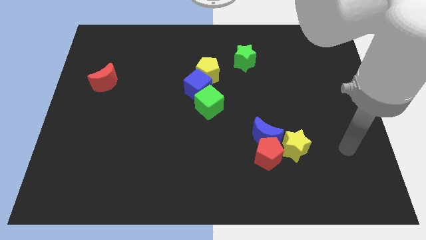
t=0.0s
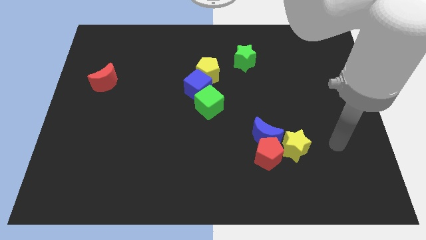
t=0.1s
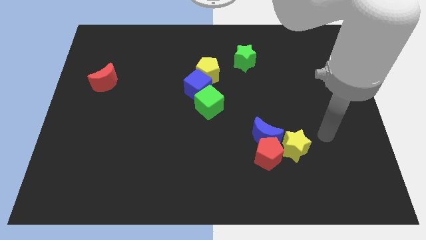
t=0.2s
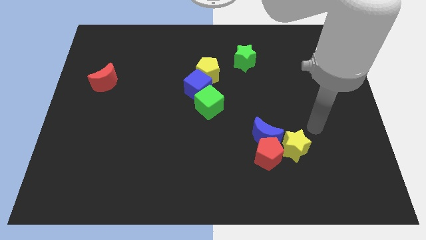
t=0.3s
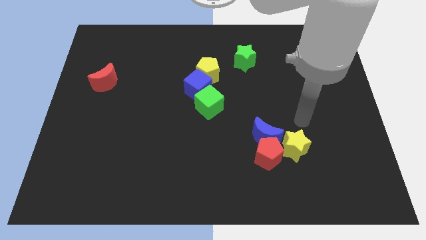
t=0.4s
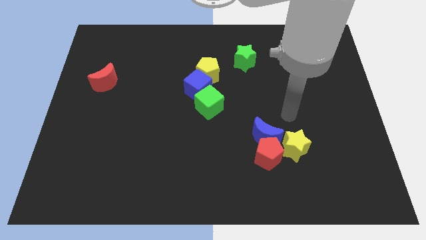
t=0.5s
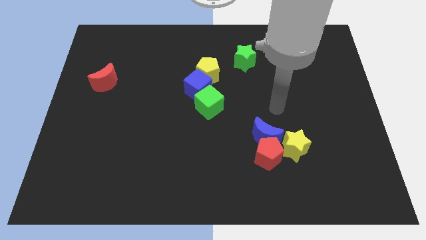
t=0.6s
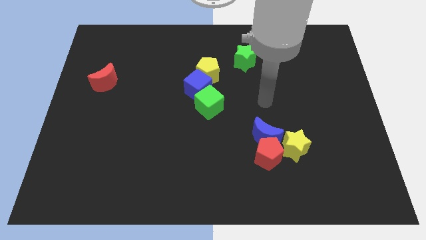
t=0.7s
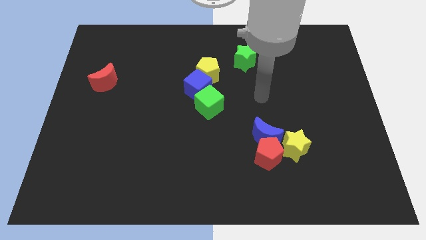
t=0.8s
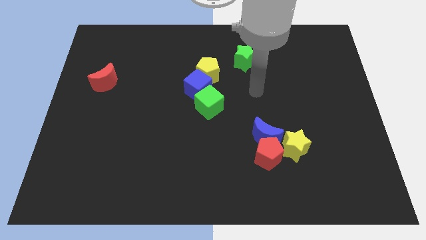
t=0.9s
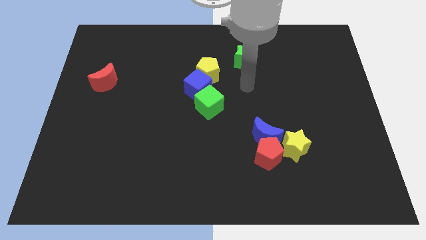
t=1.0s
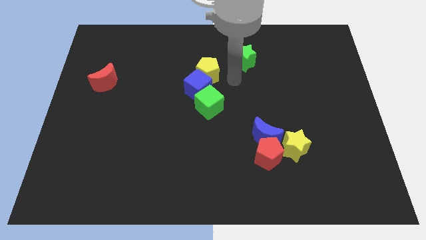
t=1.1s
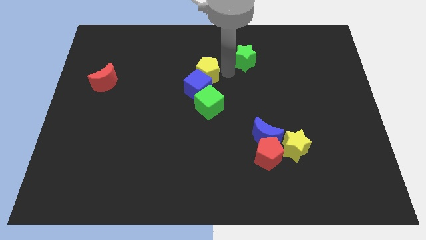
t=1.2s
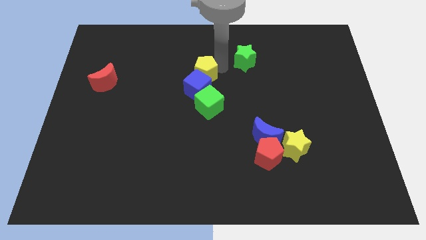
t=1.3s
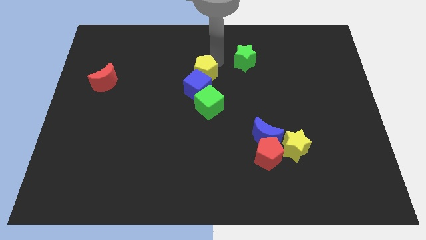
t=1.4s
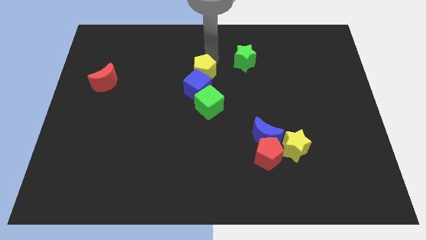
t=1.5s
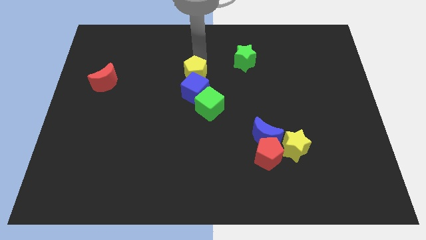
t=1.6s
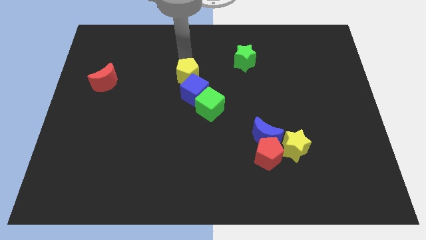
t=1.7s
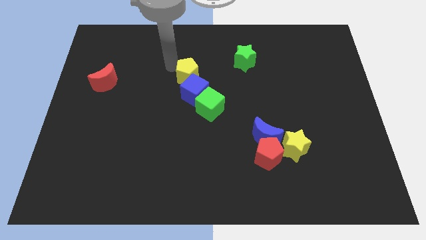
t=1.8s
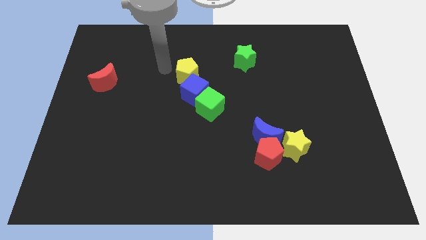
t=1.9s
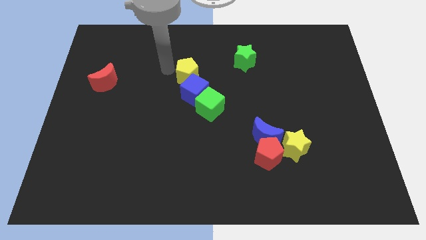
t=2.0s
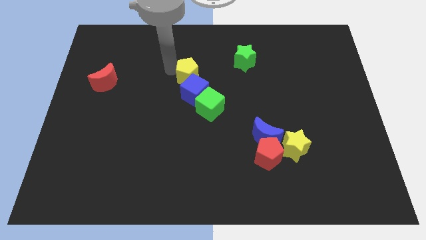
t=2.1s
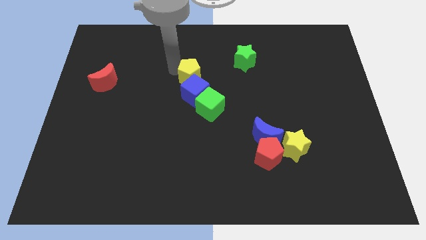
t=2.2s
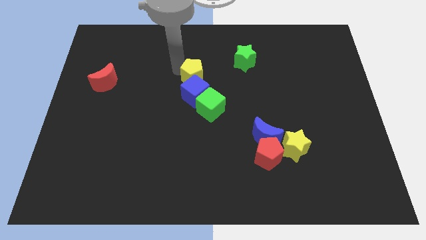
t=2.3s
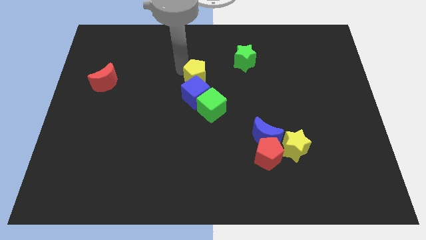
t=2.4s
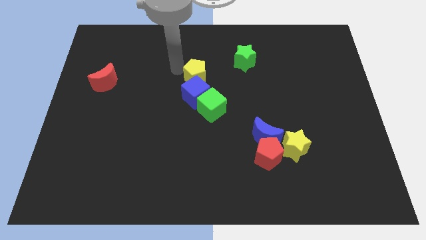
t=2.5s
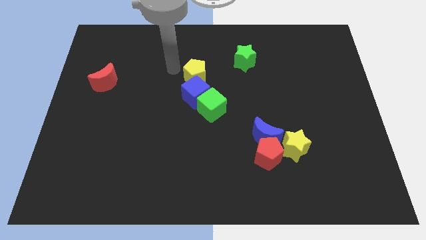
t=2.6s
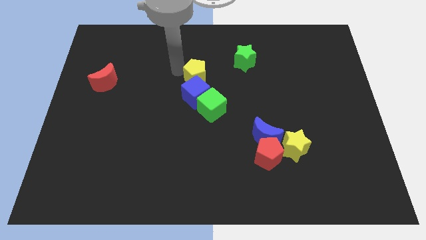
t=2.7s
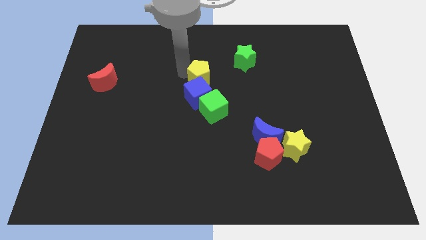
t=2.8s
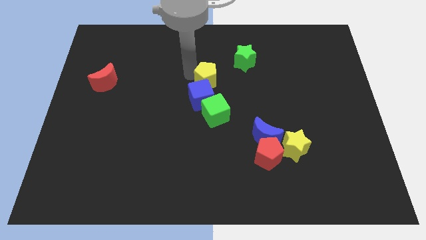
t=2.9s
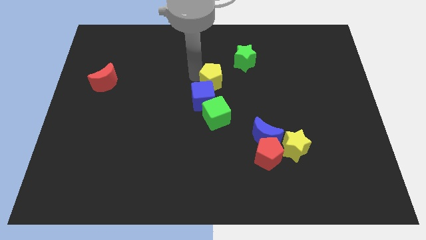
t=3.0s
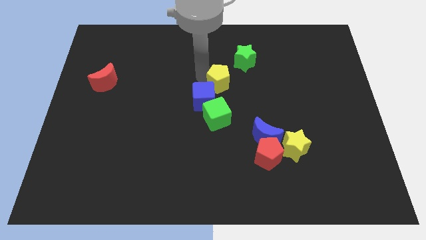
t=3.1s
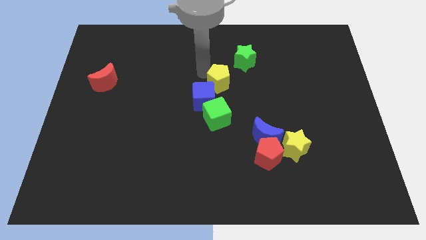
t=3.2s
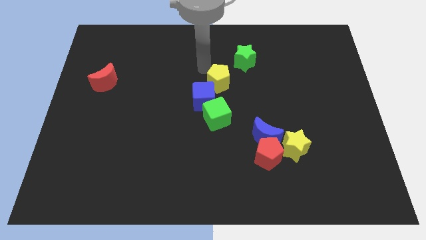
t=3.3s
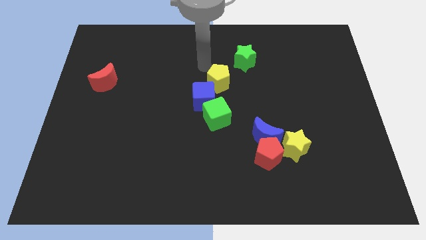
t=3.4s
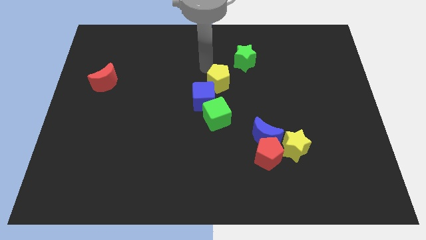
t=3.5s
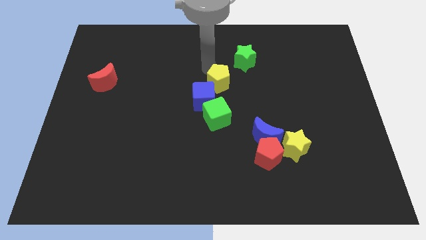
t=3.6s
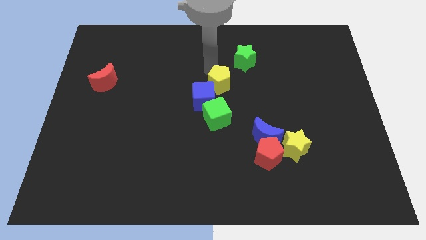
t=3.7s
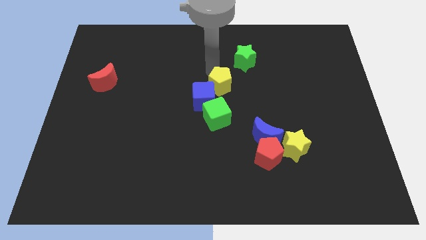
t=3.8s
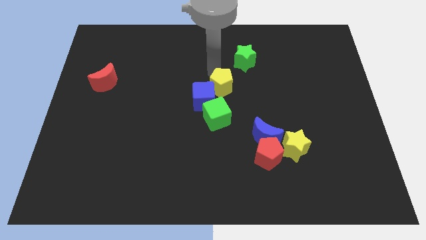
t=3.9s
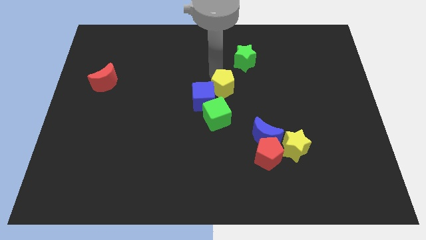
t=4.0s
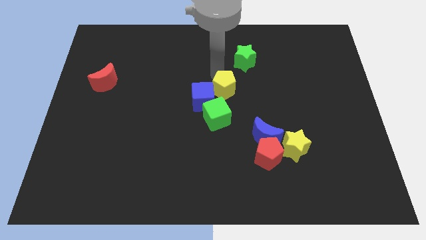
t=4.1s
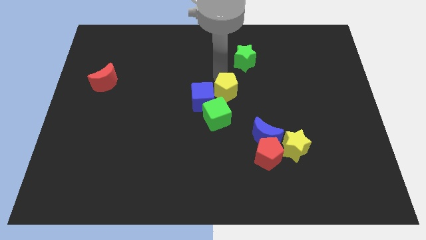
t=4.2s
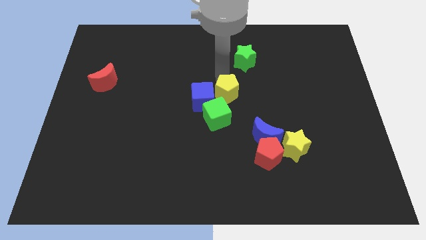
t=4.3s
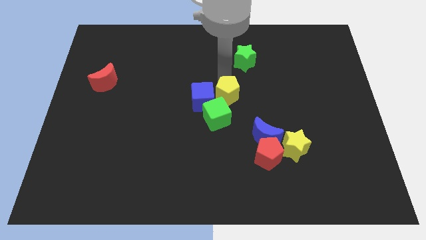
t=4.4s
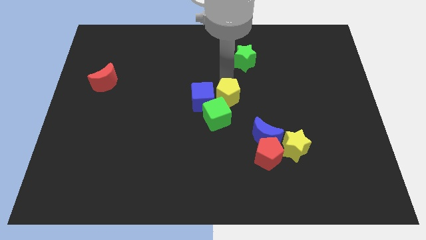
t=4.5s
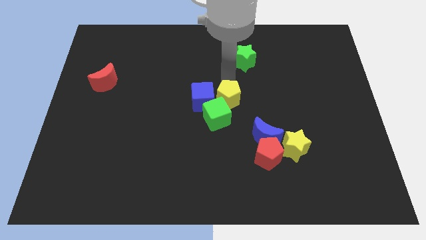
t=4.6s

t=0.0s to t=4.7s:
slightly move the yellow pentagon down

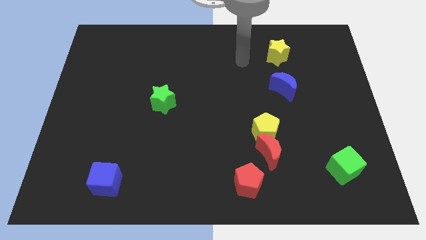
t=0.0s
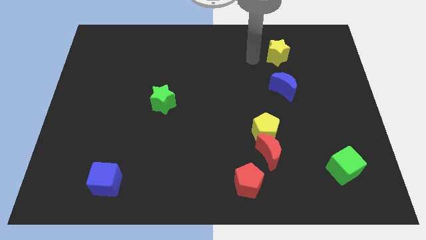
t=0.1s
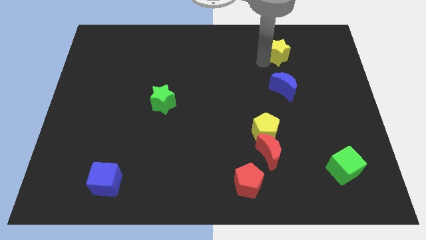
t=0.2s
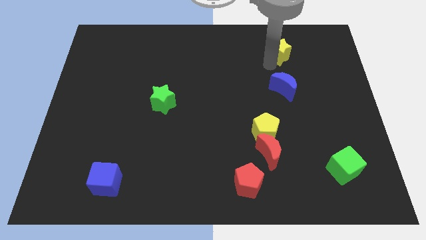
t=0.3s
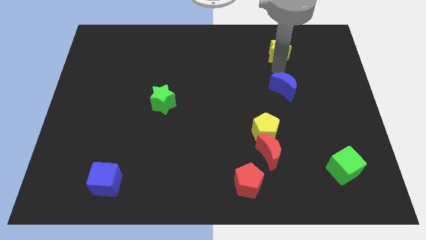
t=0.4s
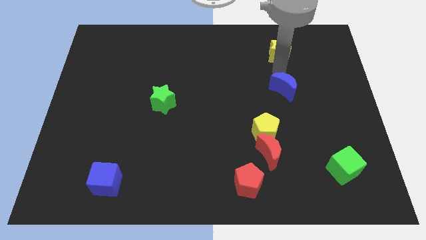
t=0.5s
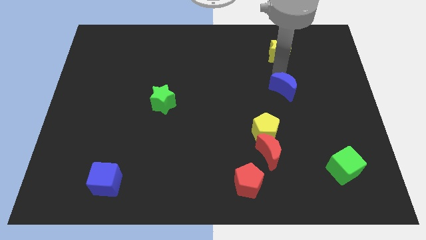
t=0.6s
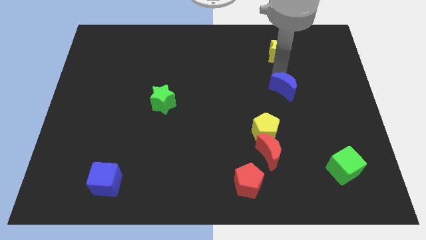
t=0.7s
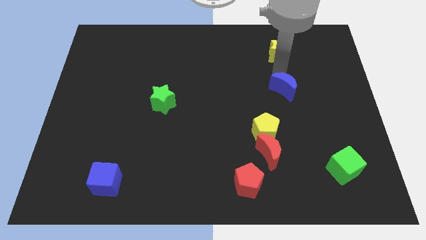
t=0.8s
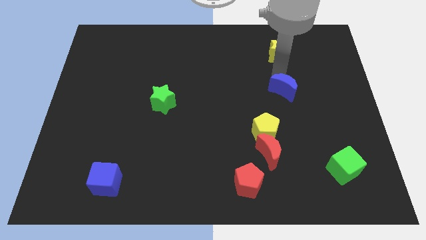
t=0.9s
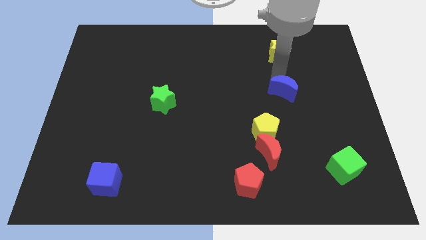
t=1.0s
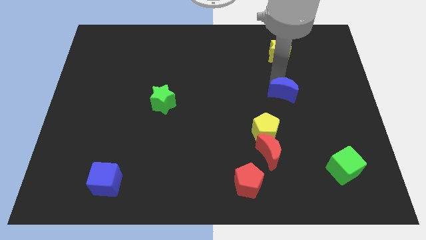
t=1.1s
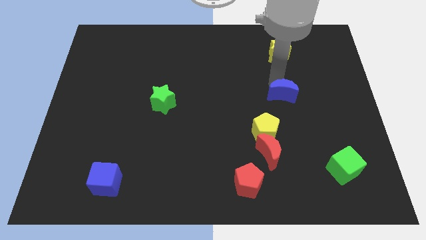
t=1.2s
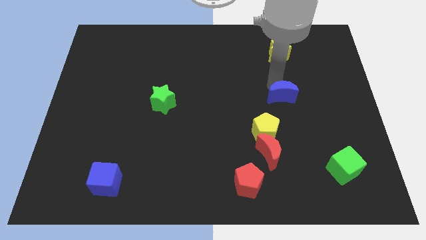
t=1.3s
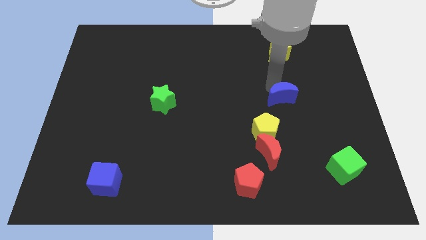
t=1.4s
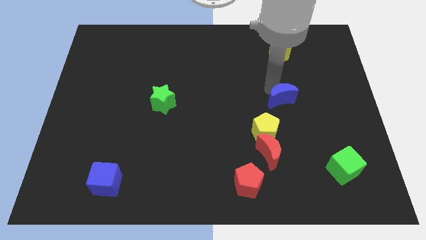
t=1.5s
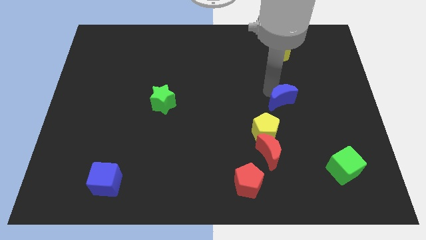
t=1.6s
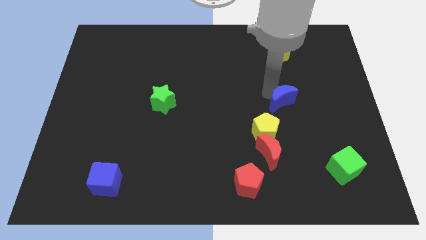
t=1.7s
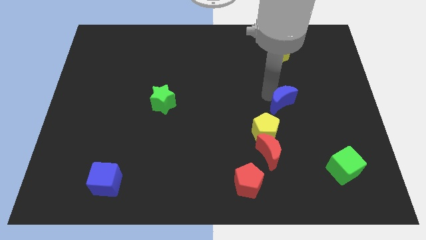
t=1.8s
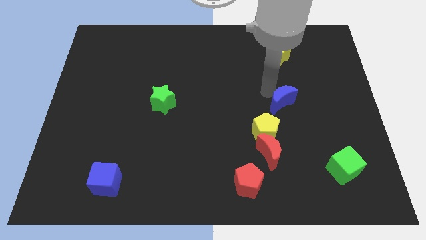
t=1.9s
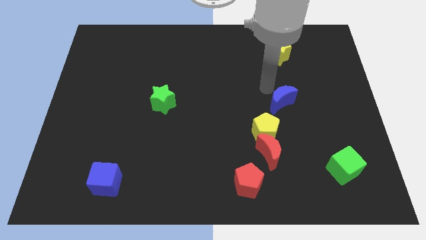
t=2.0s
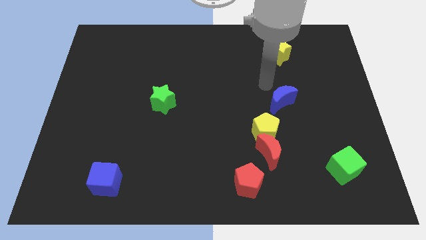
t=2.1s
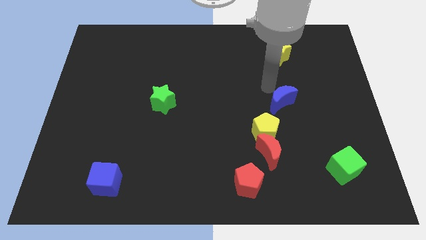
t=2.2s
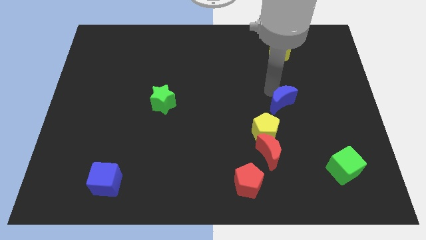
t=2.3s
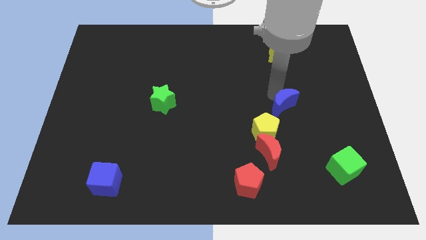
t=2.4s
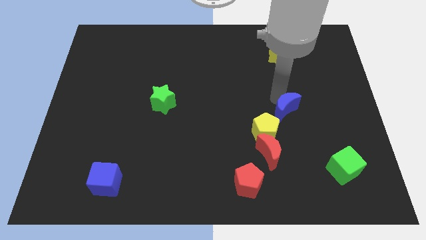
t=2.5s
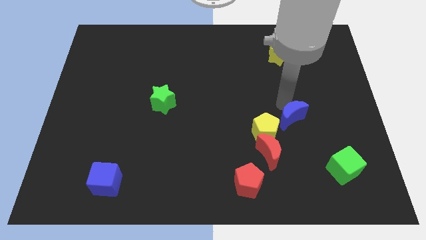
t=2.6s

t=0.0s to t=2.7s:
slide the blue moon slightly downwards

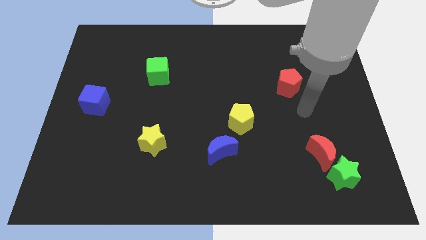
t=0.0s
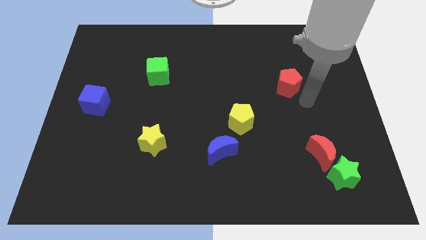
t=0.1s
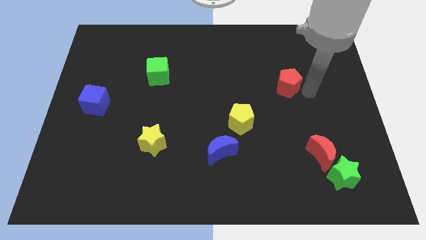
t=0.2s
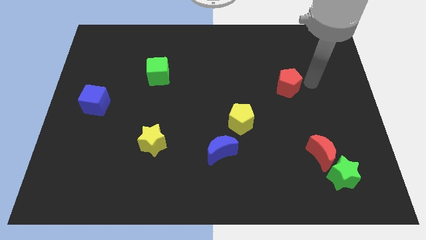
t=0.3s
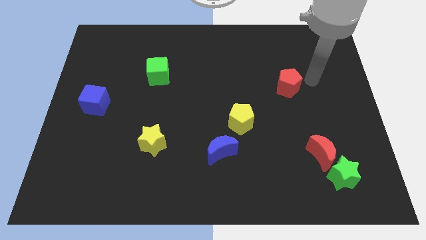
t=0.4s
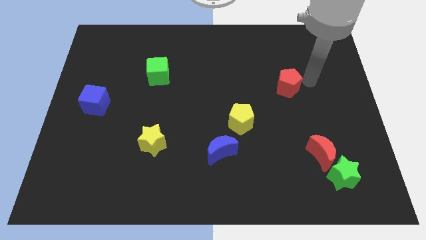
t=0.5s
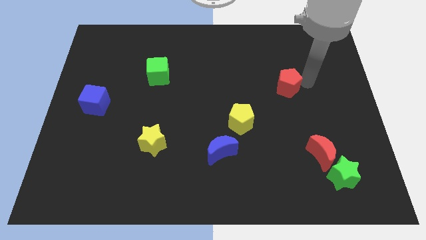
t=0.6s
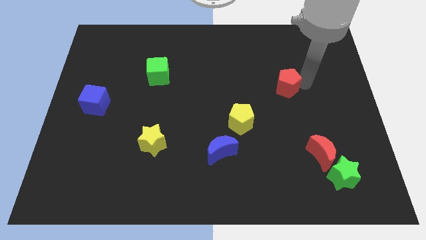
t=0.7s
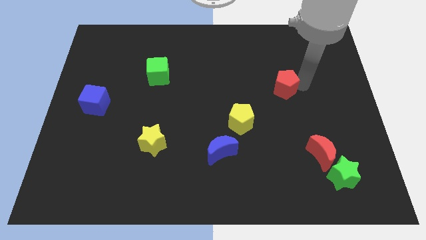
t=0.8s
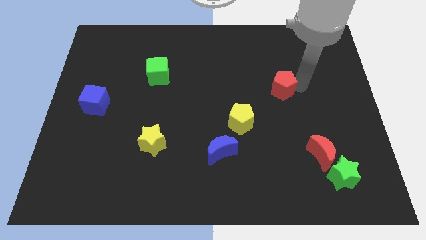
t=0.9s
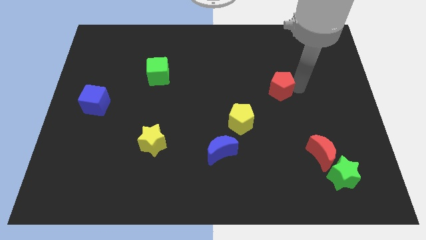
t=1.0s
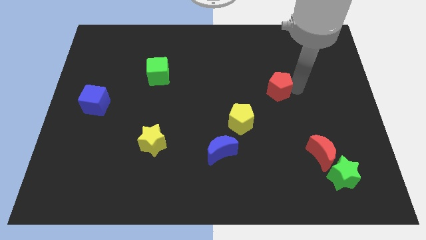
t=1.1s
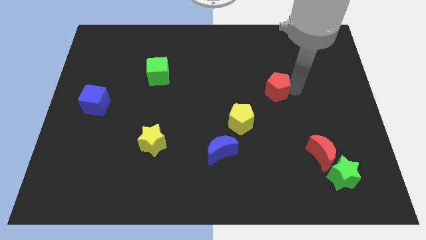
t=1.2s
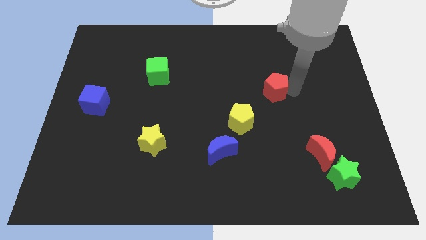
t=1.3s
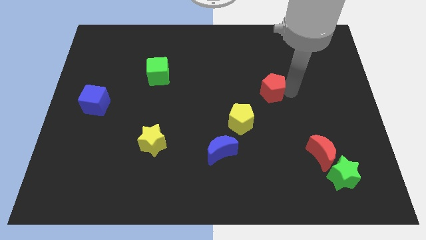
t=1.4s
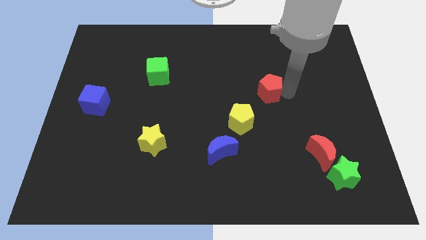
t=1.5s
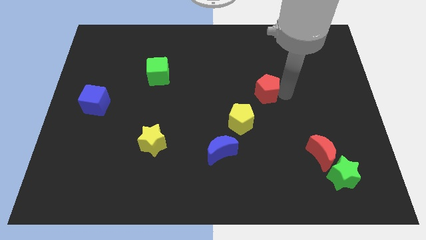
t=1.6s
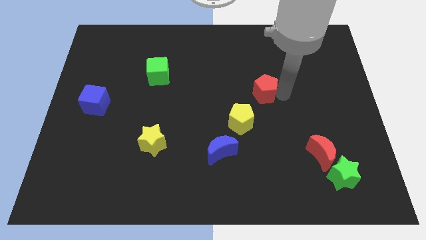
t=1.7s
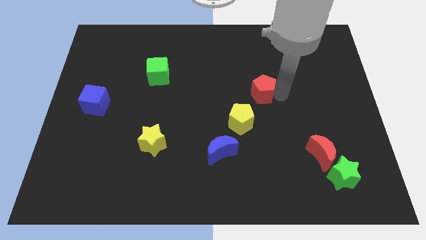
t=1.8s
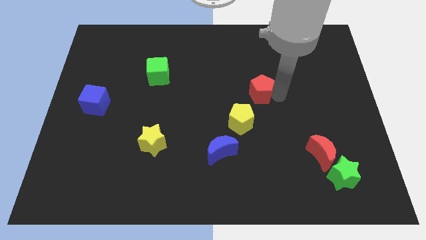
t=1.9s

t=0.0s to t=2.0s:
slide the red pentagon somewhat to the left
